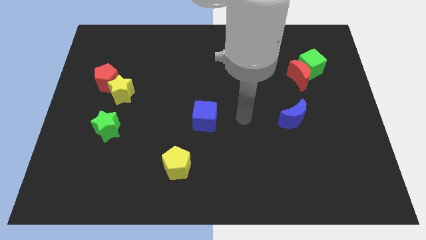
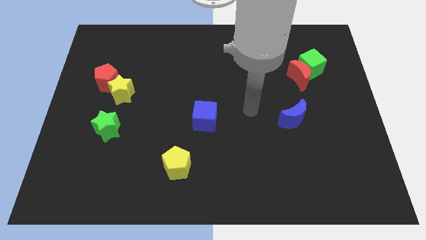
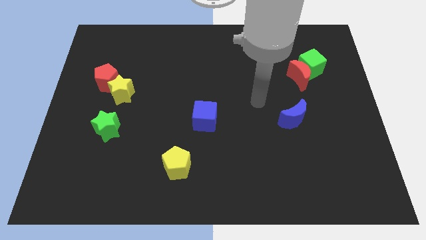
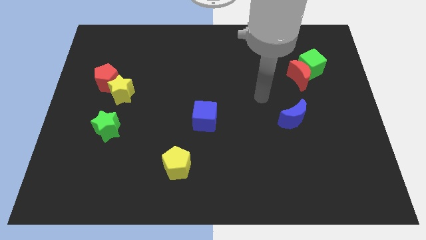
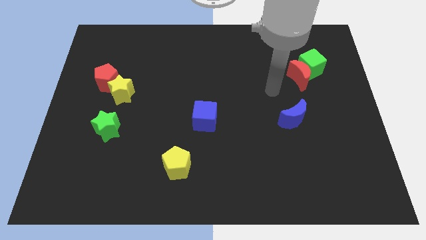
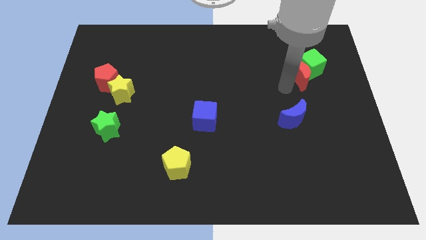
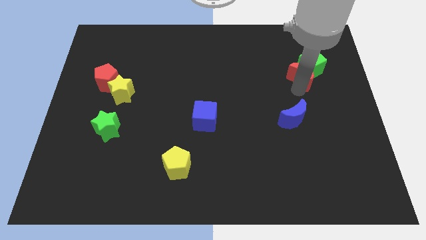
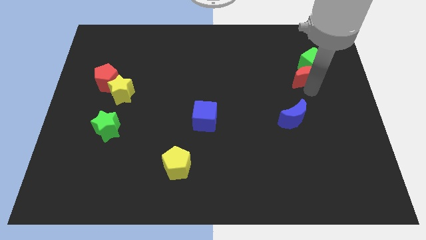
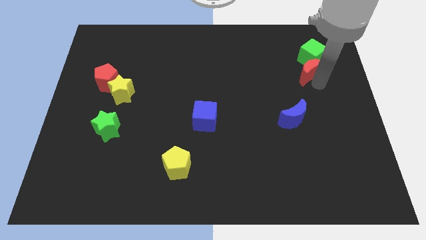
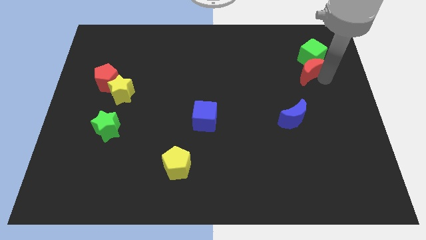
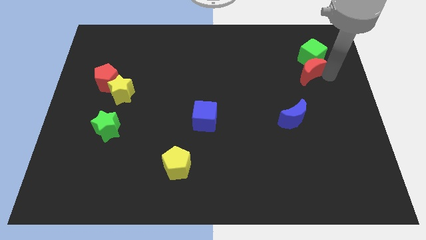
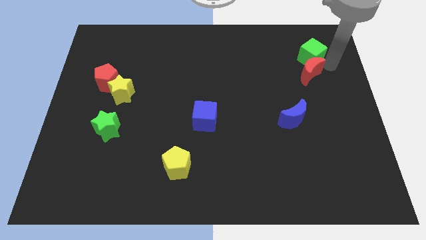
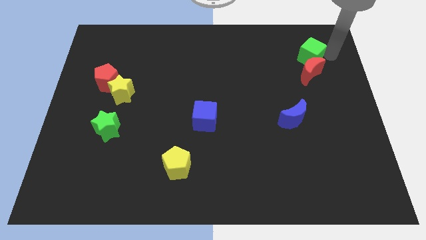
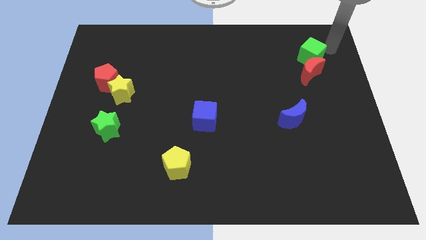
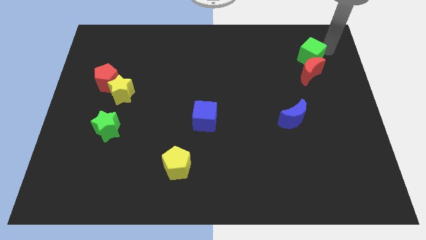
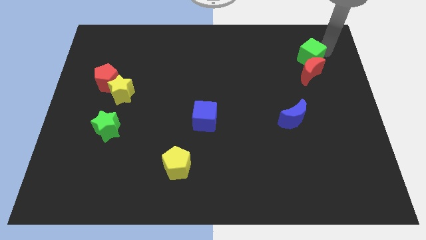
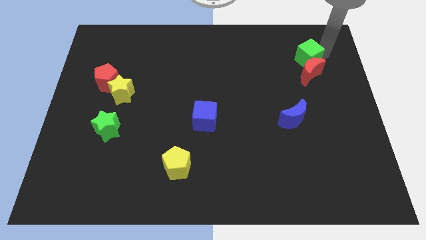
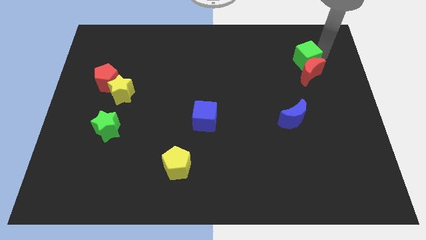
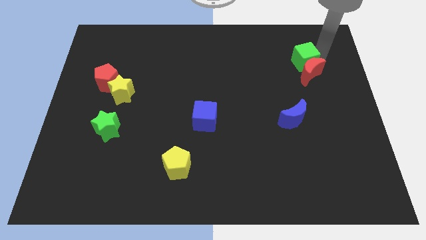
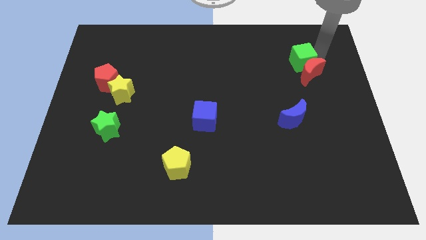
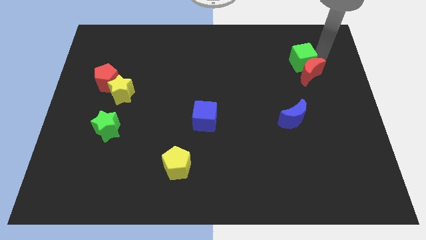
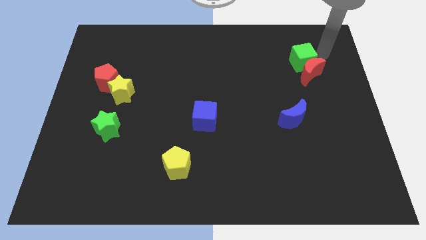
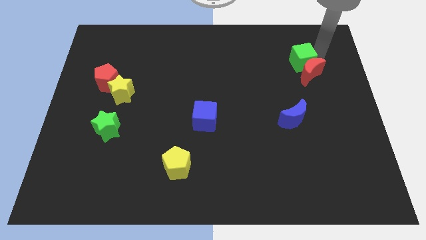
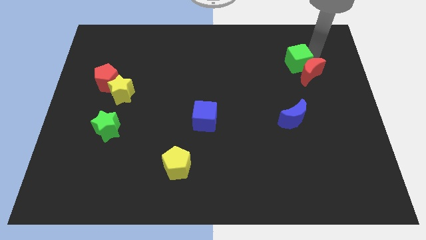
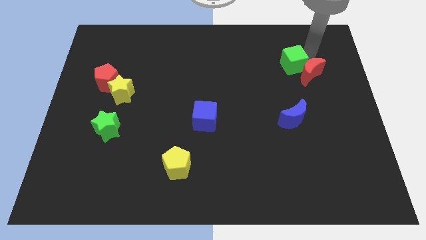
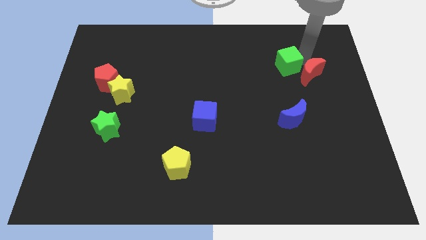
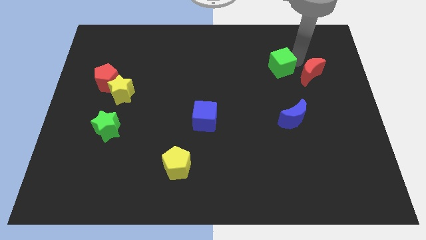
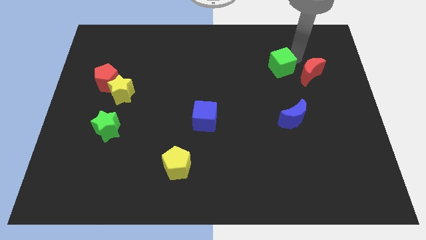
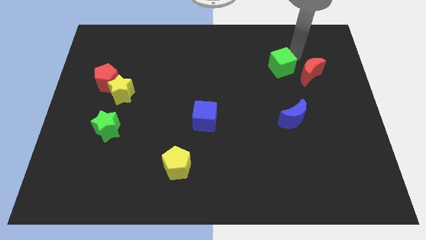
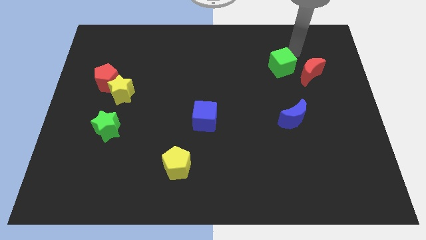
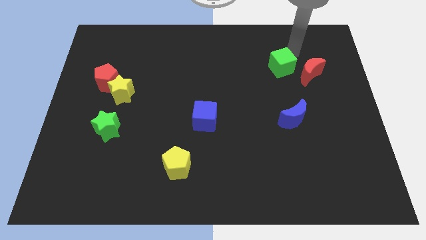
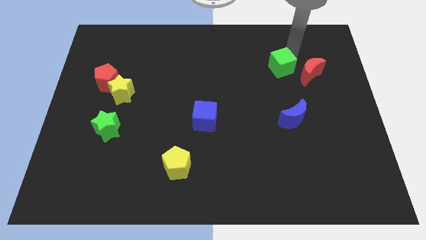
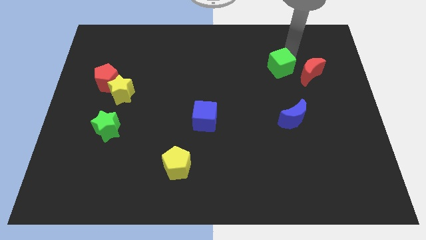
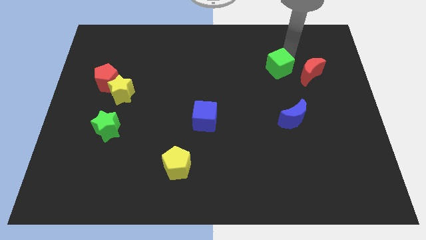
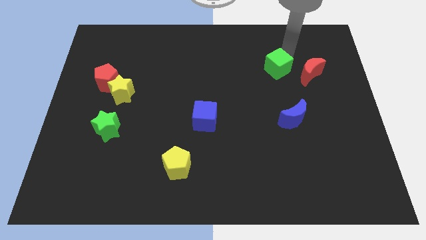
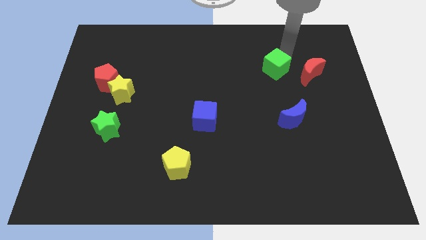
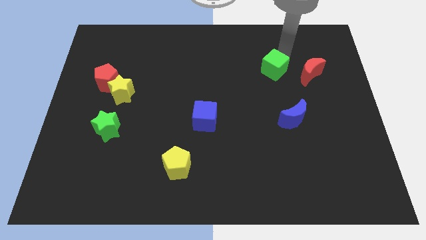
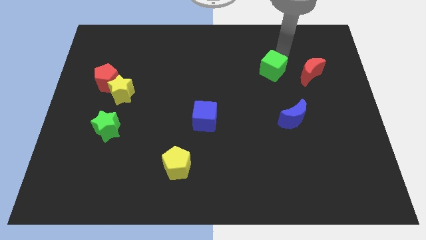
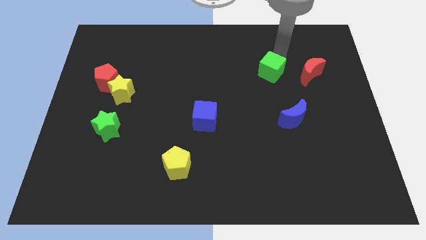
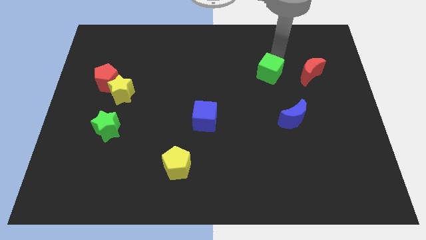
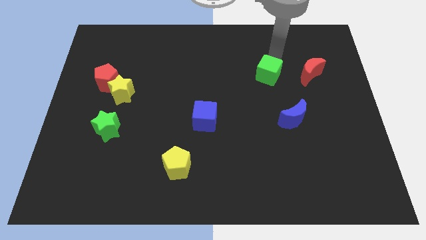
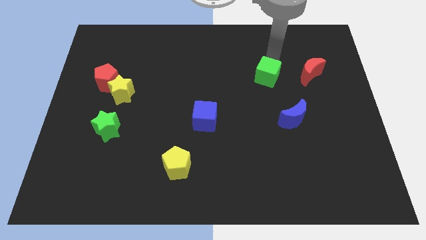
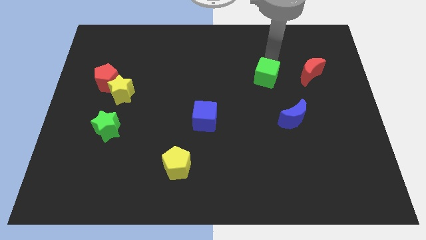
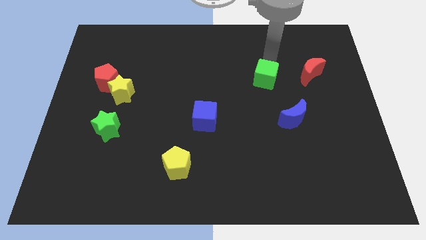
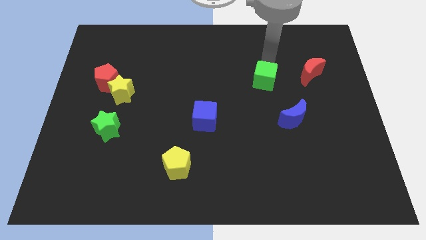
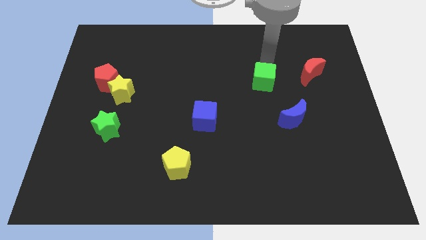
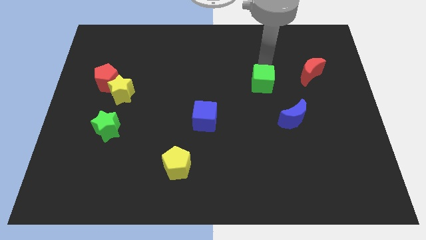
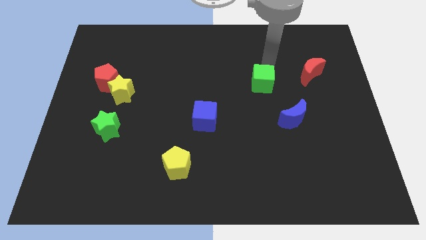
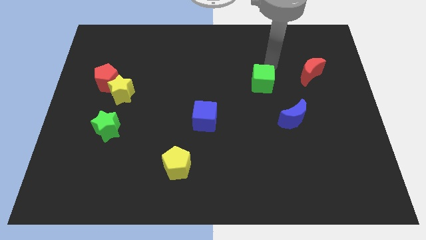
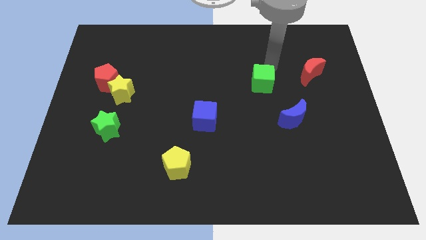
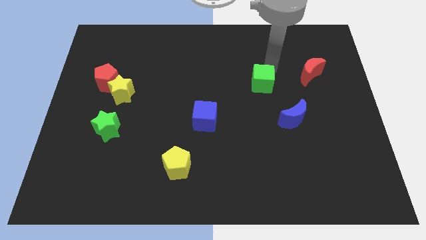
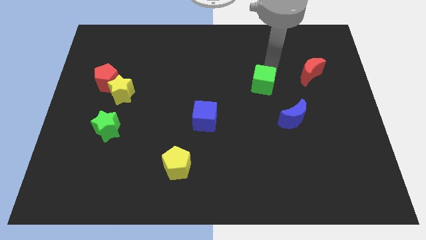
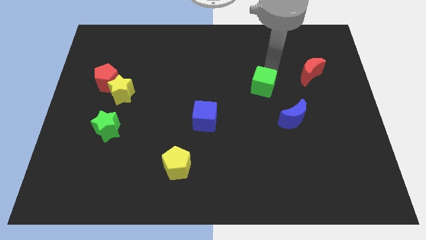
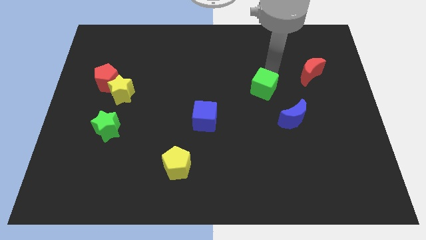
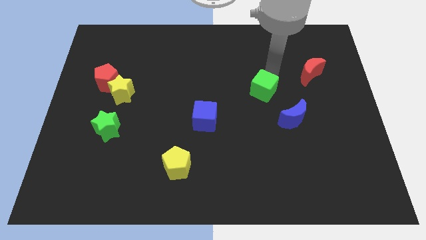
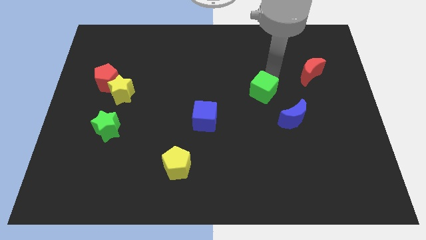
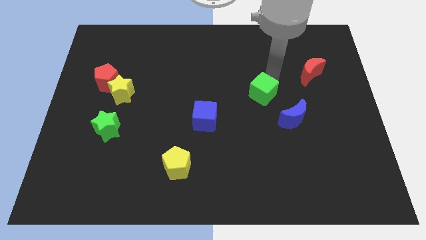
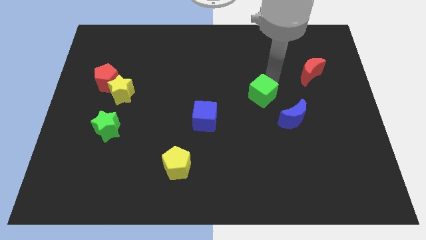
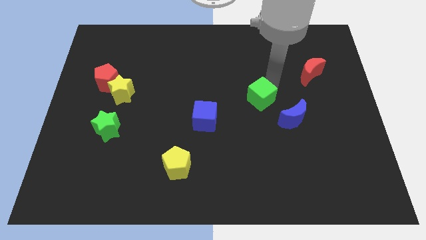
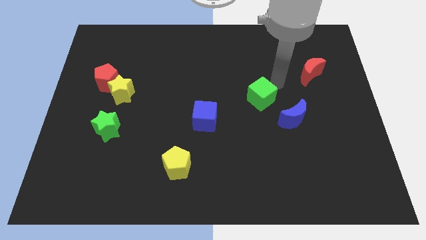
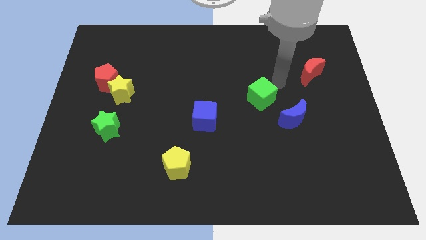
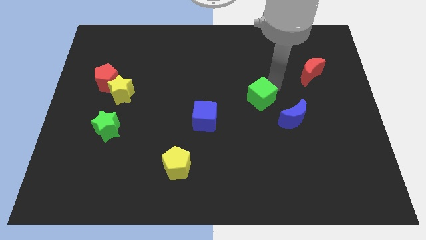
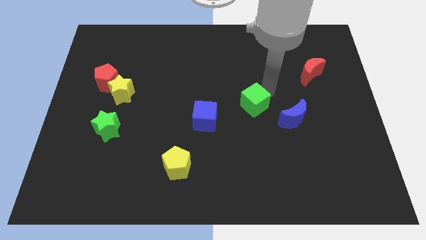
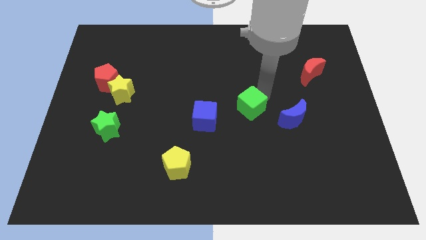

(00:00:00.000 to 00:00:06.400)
slide the green cube diagonally downwards and to the left

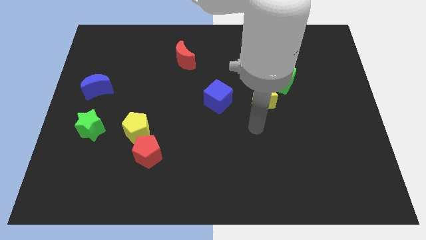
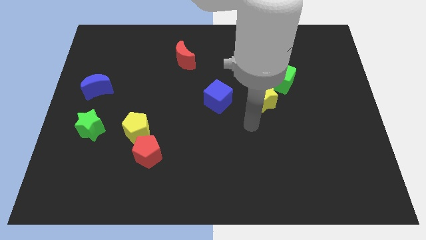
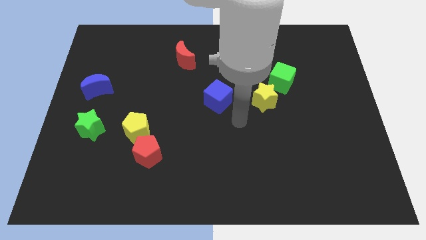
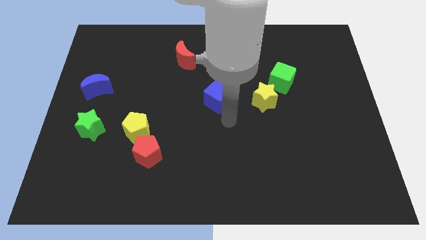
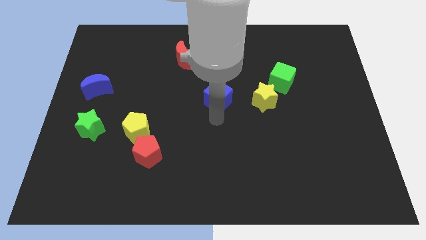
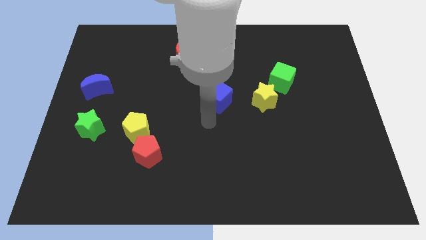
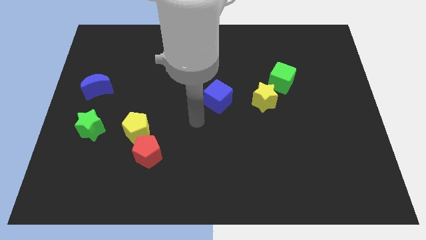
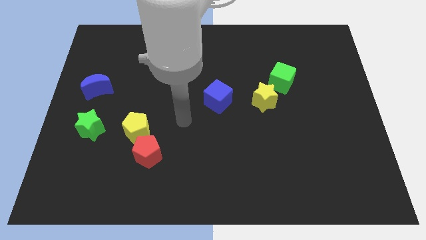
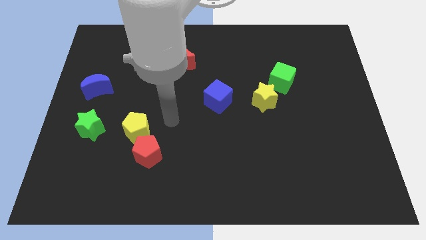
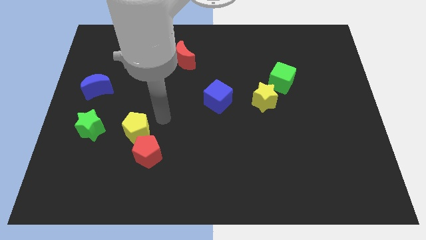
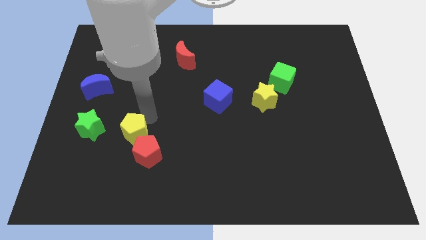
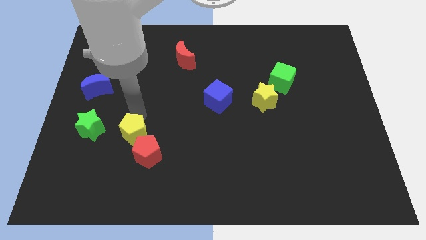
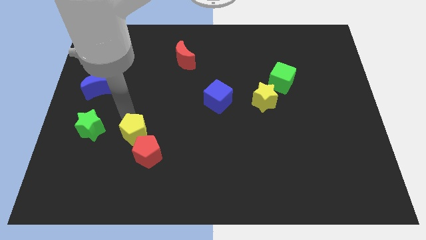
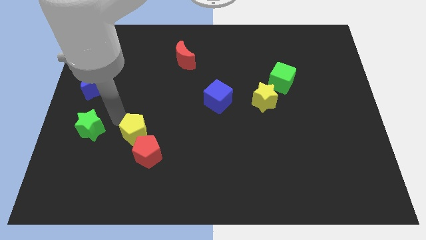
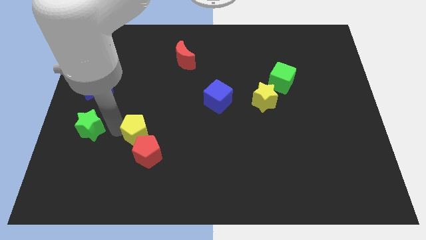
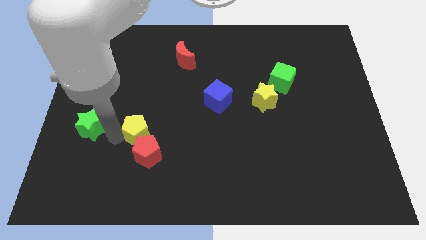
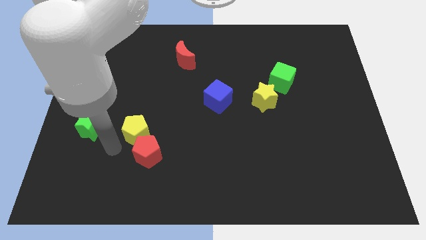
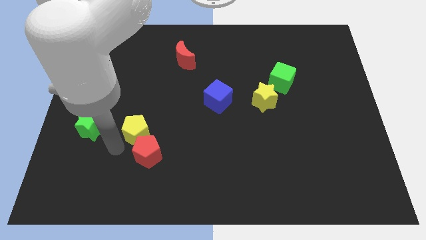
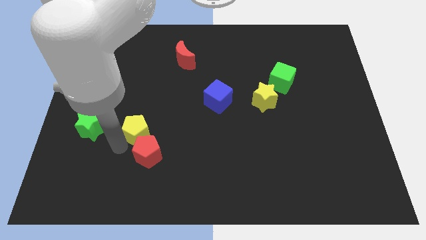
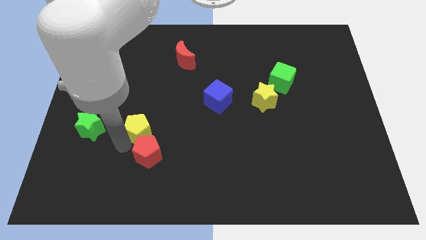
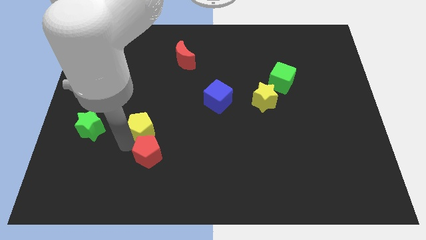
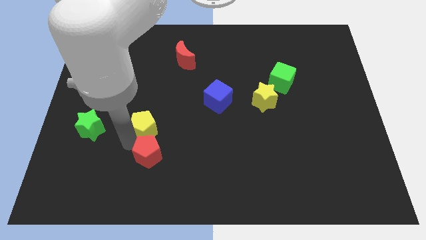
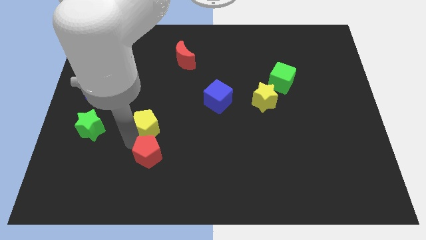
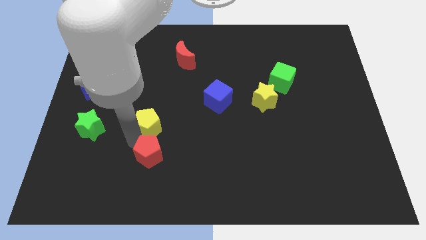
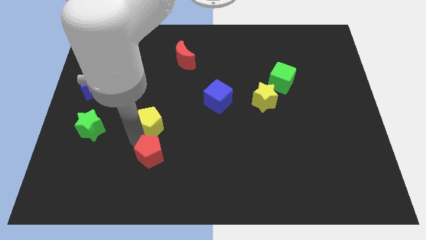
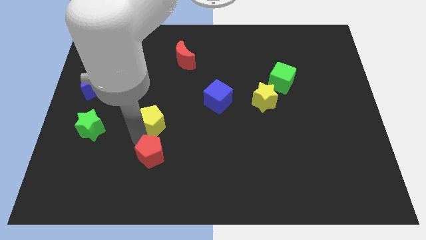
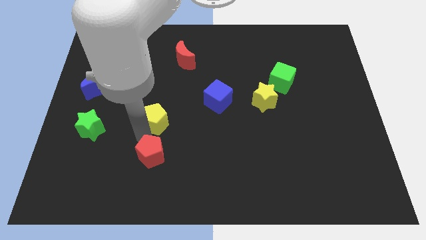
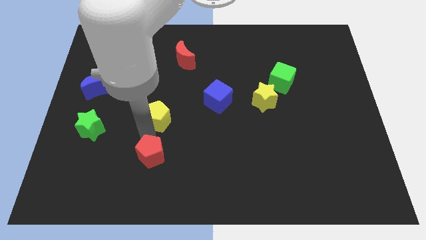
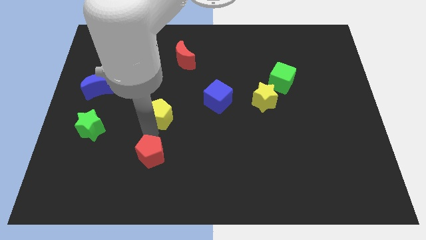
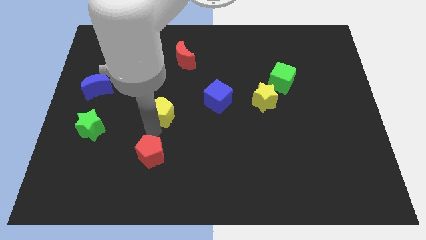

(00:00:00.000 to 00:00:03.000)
move the yellow pentagon a little bit up and to the right diagonally
